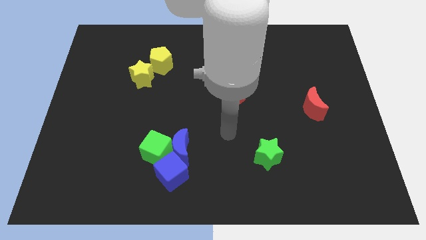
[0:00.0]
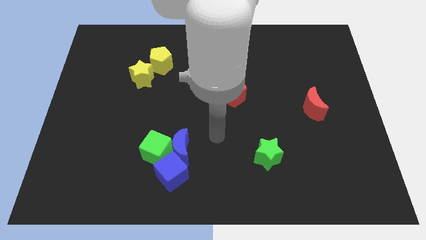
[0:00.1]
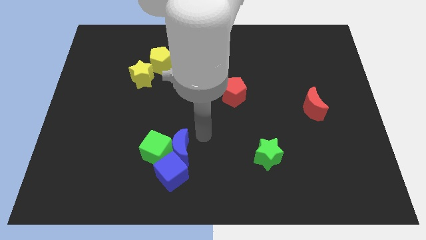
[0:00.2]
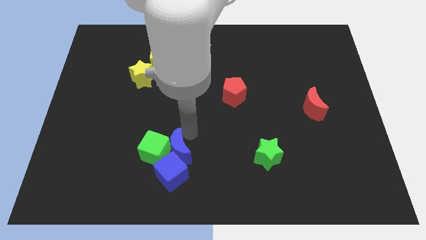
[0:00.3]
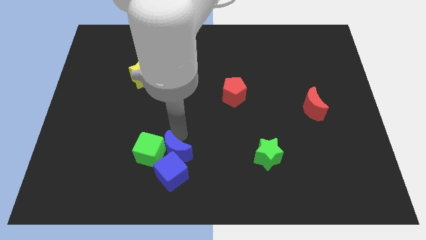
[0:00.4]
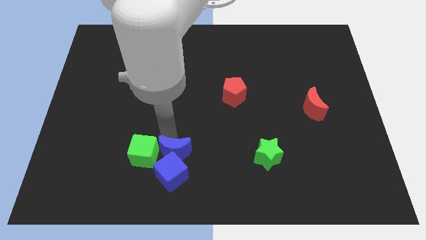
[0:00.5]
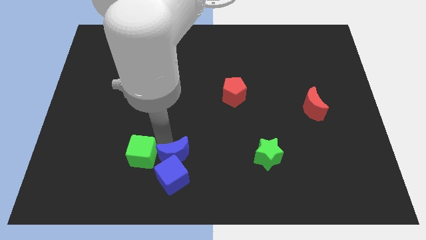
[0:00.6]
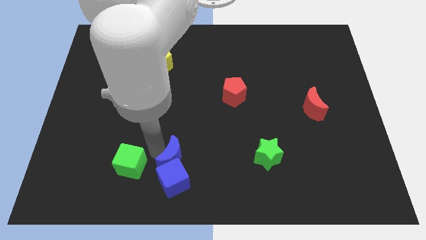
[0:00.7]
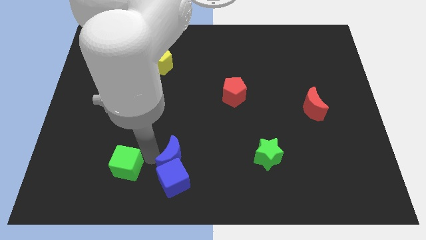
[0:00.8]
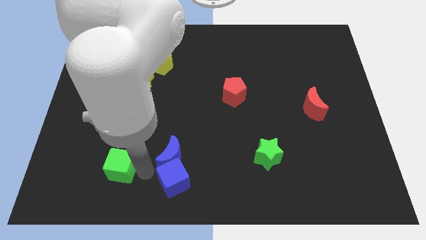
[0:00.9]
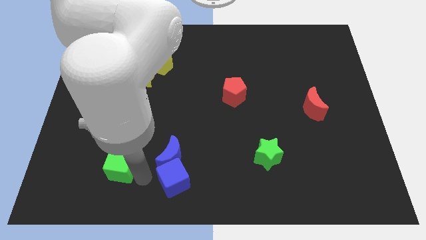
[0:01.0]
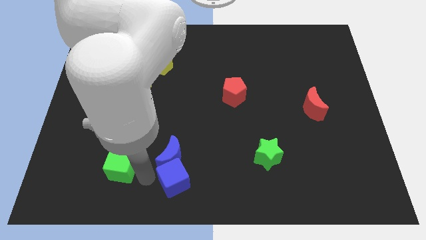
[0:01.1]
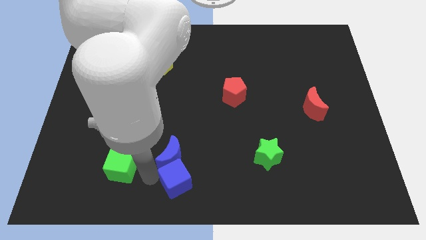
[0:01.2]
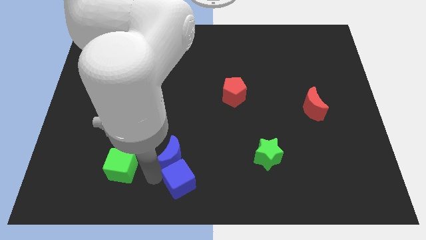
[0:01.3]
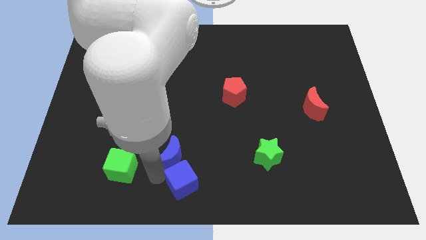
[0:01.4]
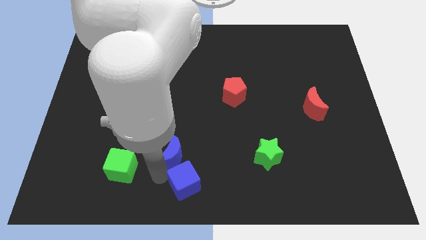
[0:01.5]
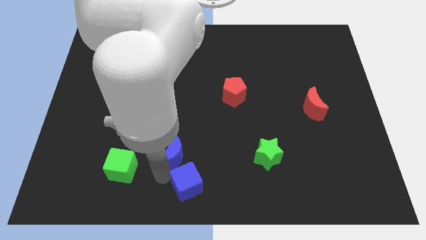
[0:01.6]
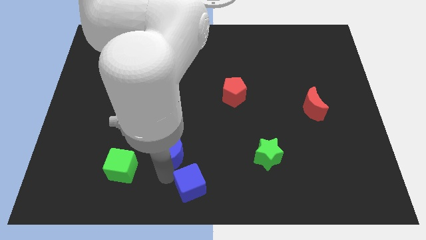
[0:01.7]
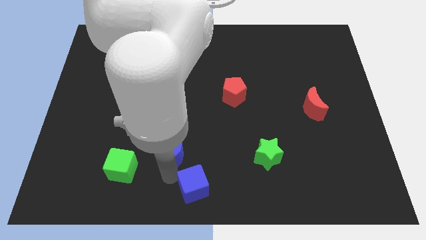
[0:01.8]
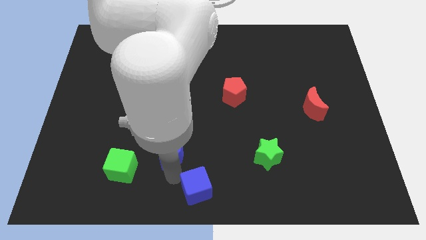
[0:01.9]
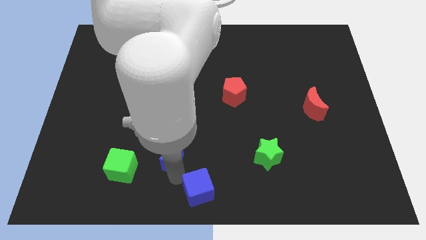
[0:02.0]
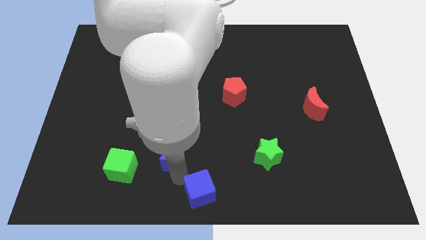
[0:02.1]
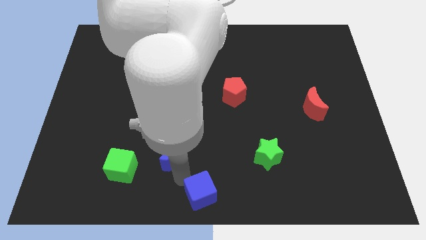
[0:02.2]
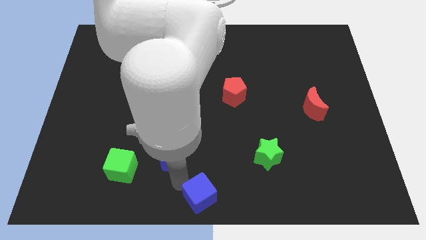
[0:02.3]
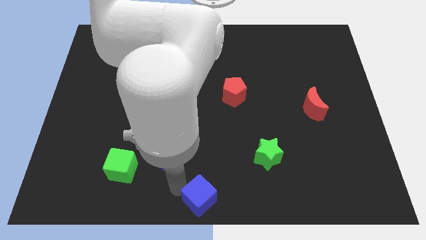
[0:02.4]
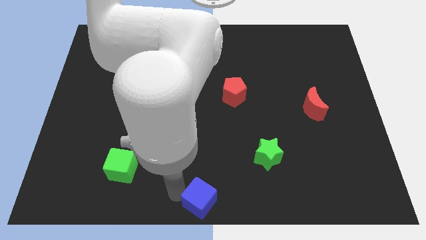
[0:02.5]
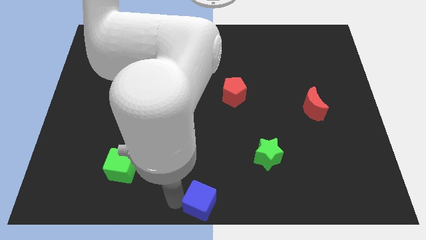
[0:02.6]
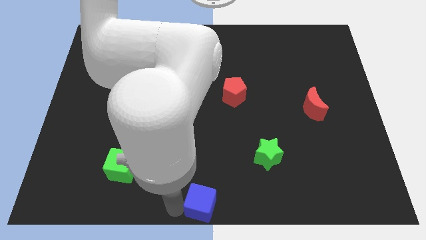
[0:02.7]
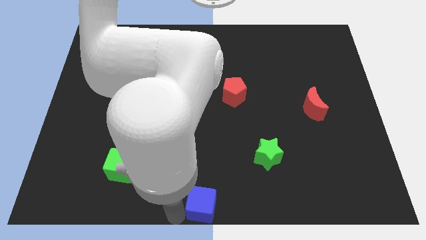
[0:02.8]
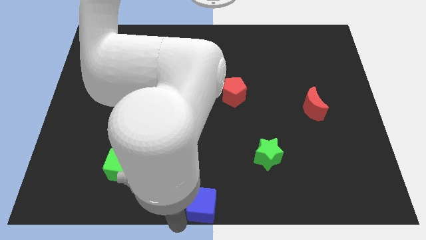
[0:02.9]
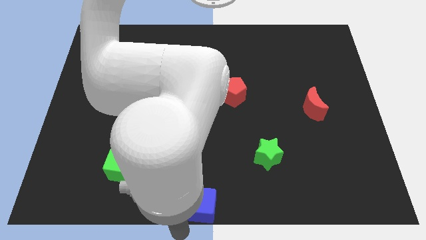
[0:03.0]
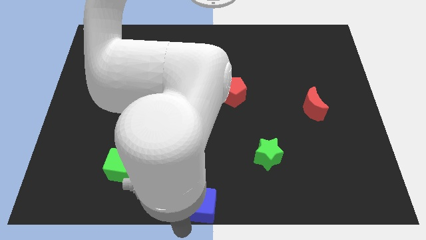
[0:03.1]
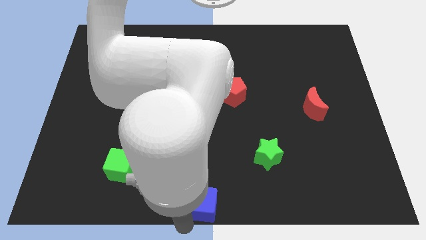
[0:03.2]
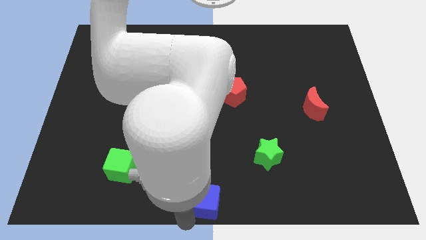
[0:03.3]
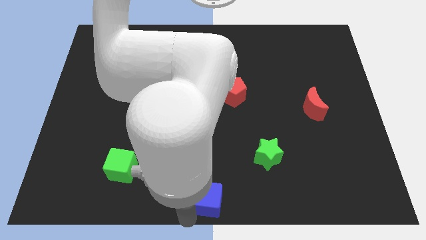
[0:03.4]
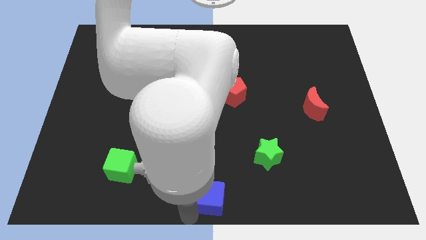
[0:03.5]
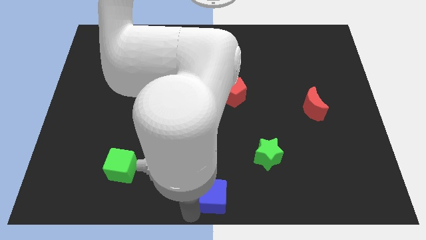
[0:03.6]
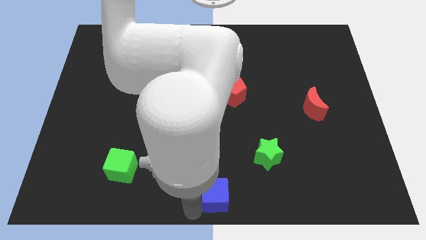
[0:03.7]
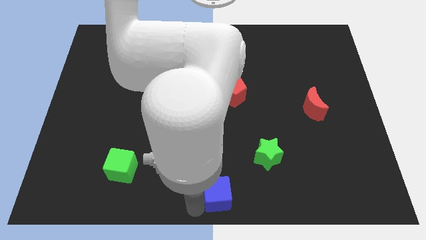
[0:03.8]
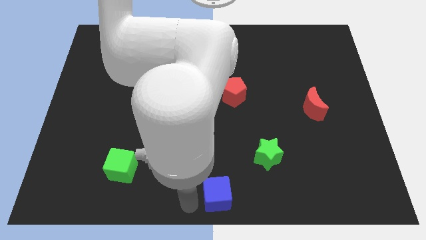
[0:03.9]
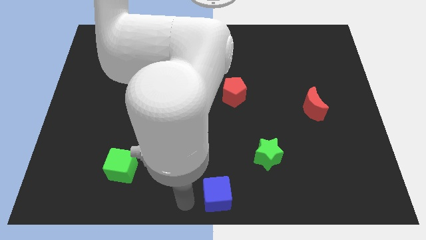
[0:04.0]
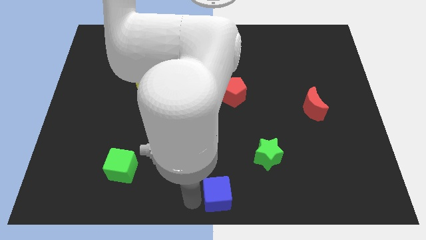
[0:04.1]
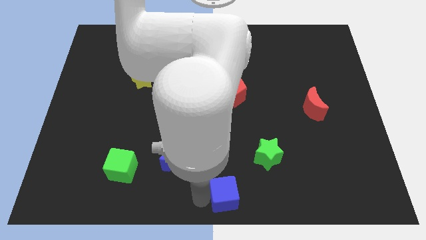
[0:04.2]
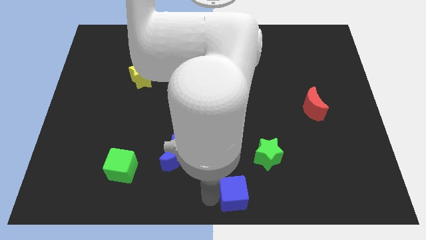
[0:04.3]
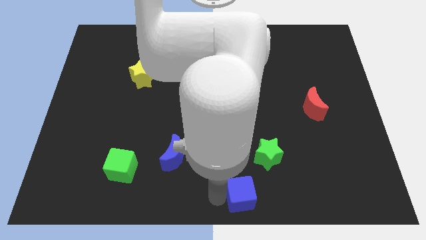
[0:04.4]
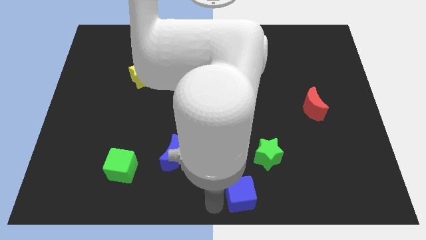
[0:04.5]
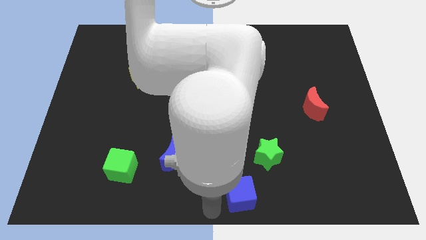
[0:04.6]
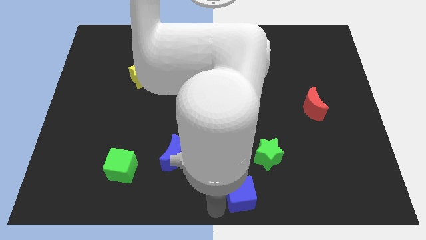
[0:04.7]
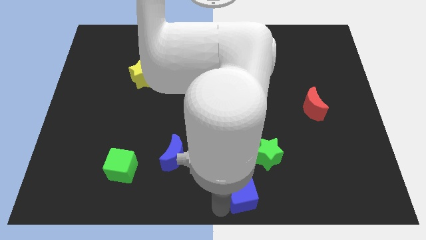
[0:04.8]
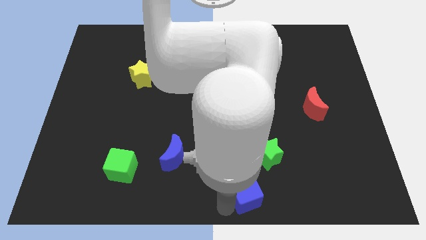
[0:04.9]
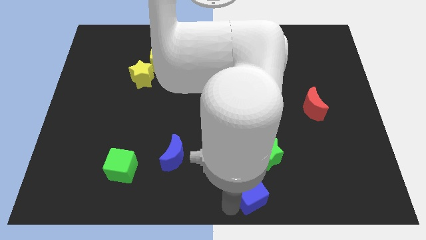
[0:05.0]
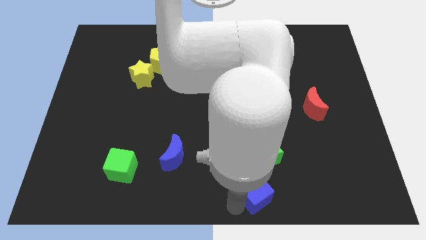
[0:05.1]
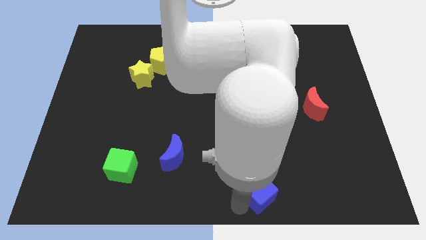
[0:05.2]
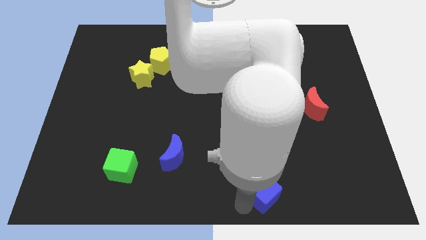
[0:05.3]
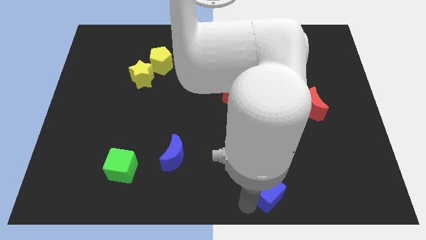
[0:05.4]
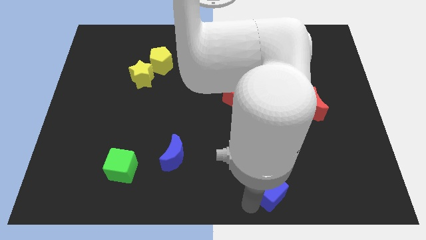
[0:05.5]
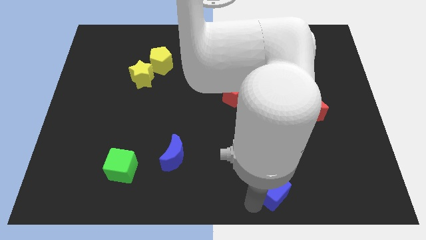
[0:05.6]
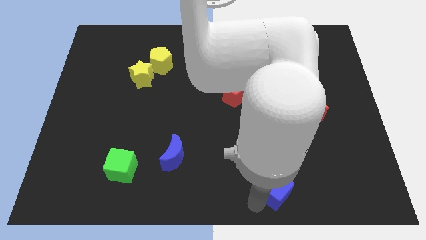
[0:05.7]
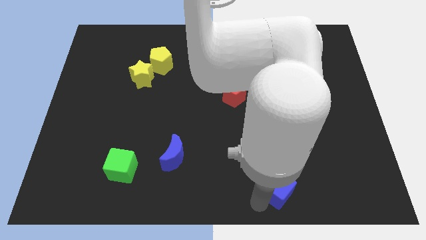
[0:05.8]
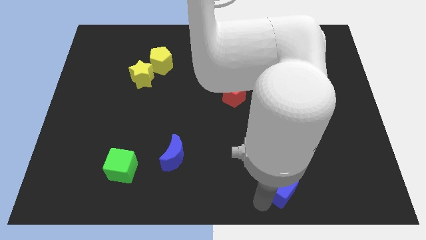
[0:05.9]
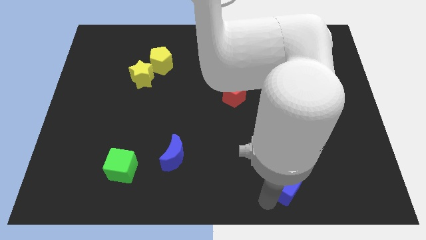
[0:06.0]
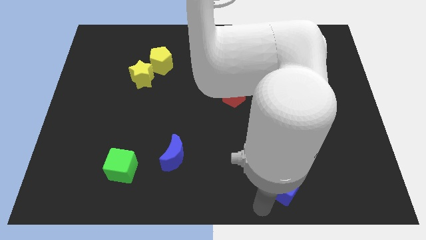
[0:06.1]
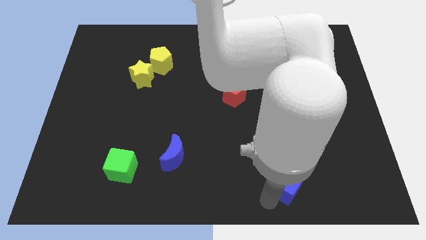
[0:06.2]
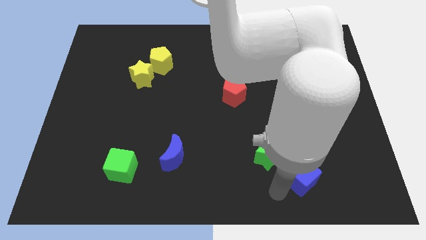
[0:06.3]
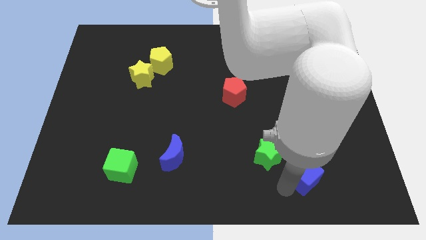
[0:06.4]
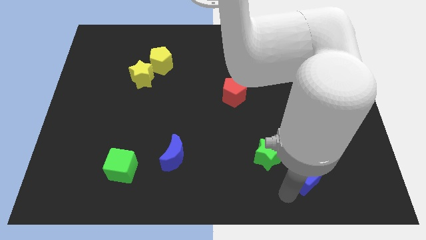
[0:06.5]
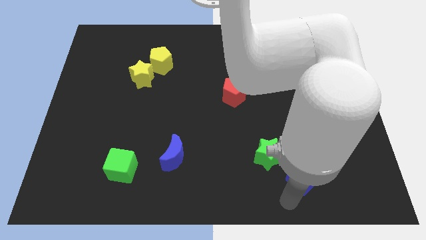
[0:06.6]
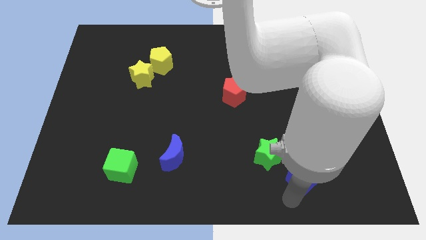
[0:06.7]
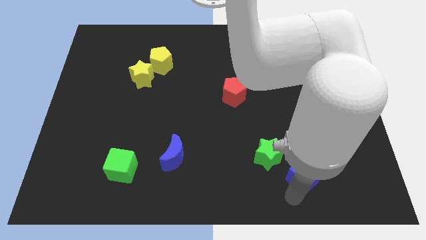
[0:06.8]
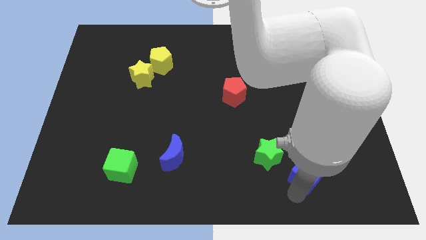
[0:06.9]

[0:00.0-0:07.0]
put the blue cube right of the green star

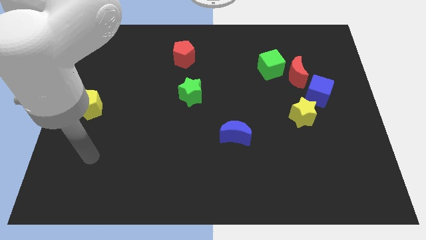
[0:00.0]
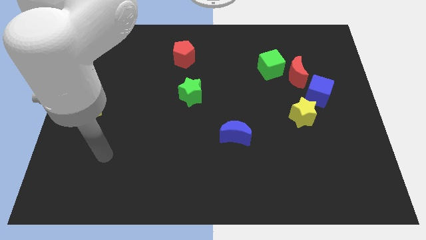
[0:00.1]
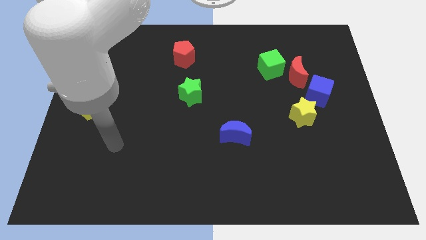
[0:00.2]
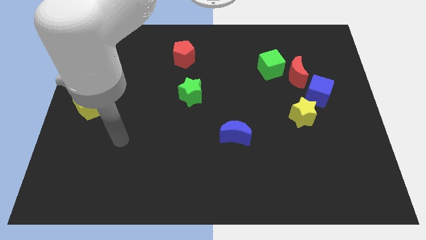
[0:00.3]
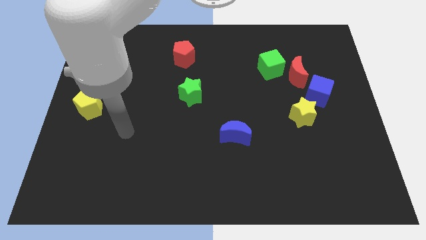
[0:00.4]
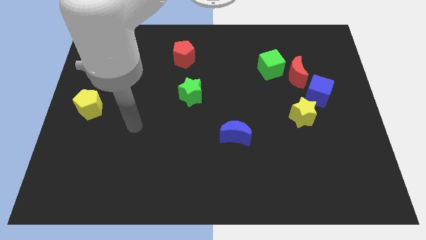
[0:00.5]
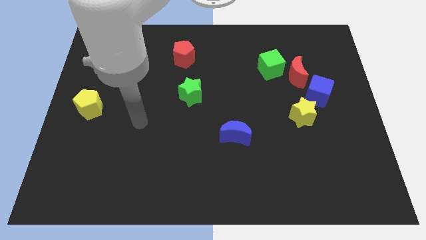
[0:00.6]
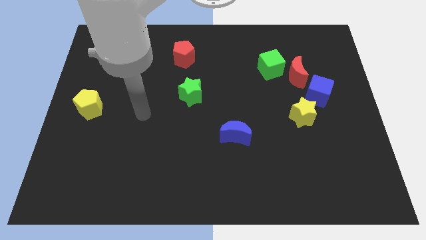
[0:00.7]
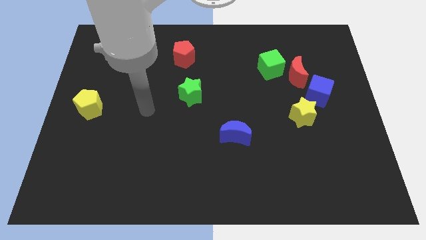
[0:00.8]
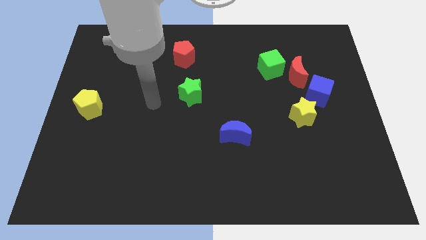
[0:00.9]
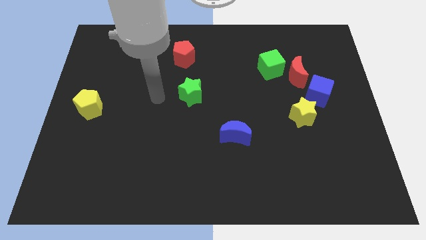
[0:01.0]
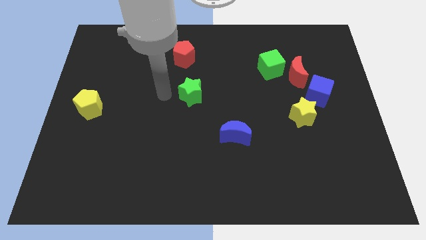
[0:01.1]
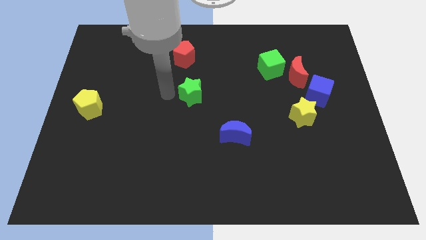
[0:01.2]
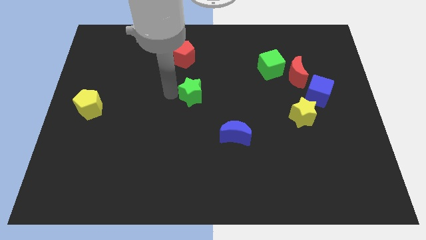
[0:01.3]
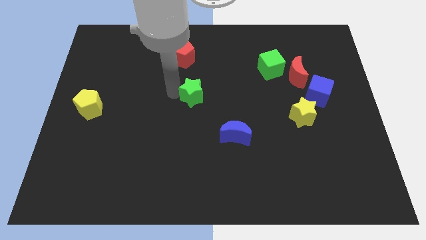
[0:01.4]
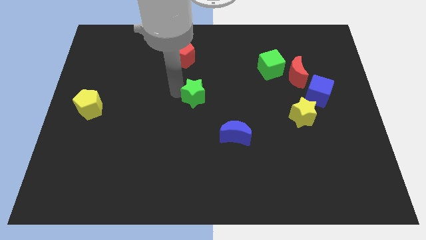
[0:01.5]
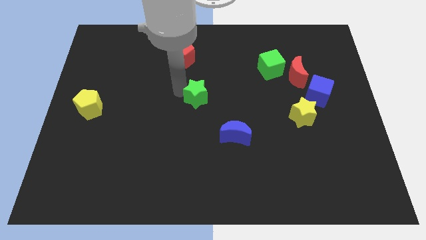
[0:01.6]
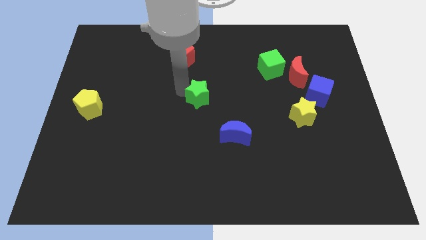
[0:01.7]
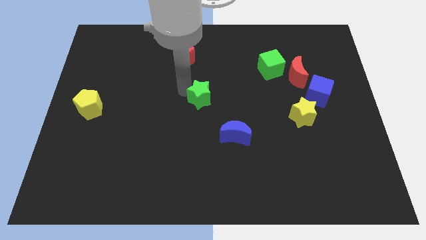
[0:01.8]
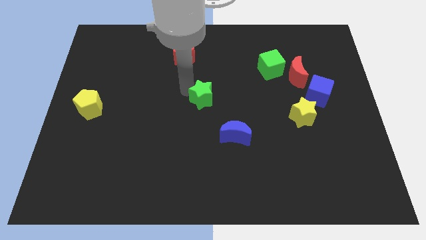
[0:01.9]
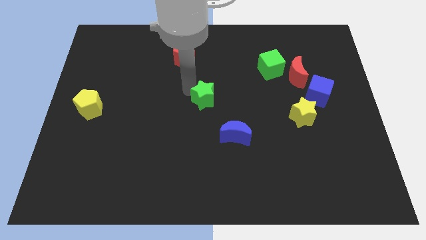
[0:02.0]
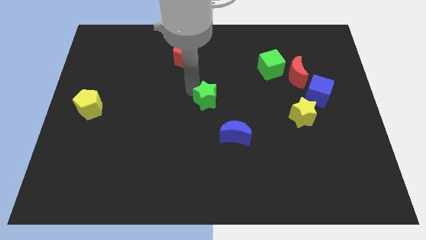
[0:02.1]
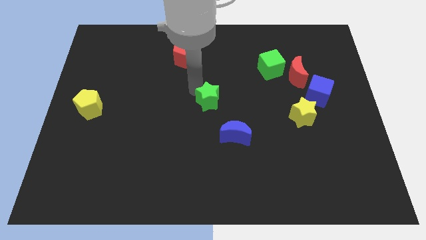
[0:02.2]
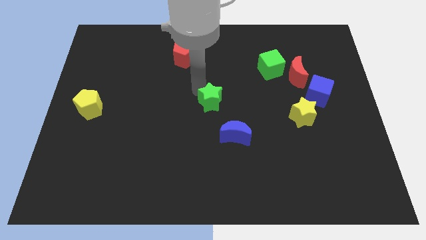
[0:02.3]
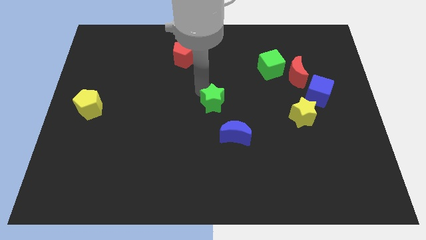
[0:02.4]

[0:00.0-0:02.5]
move the green star above the blue moon
